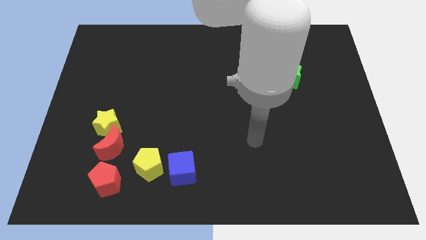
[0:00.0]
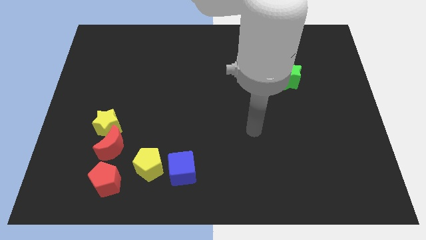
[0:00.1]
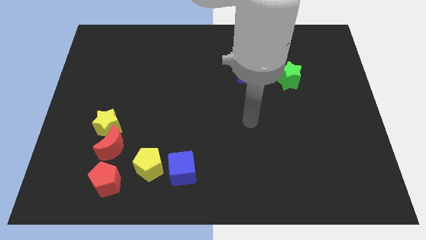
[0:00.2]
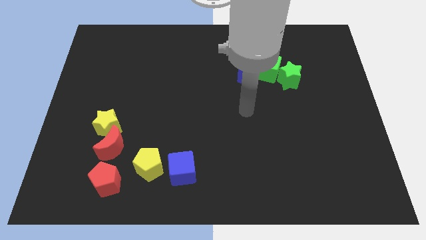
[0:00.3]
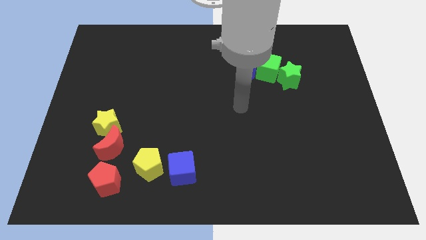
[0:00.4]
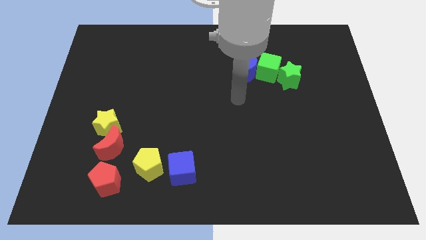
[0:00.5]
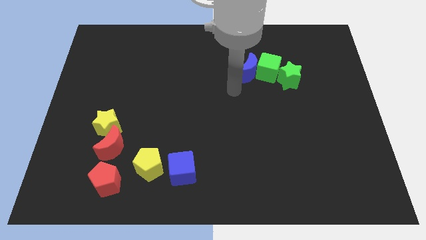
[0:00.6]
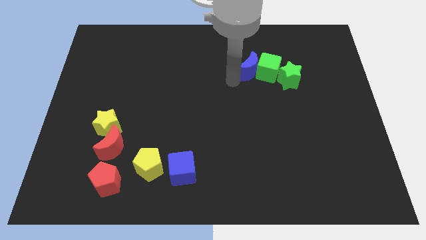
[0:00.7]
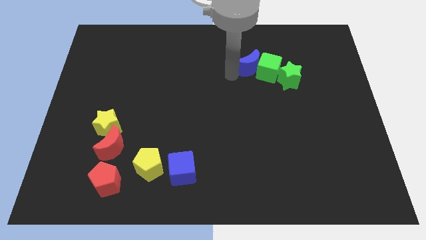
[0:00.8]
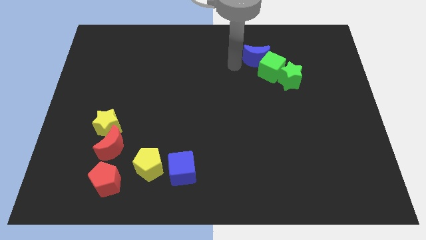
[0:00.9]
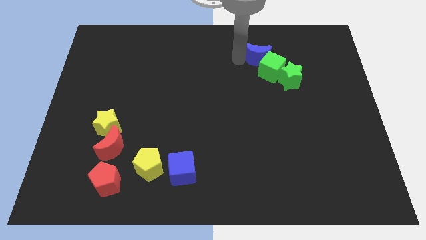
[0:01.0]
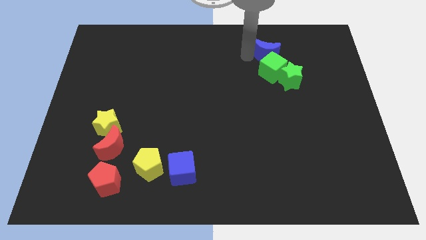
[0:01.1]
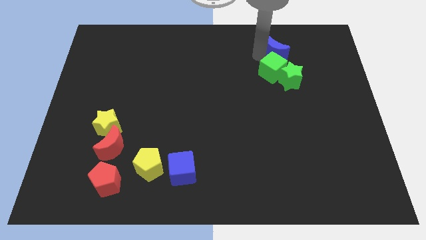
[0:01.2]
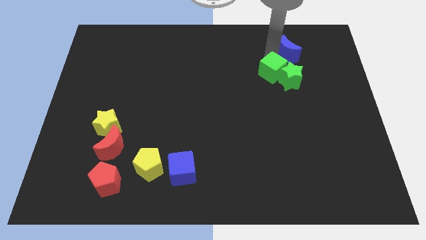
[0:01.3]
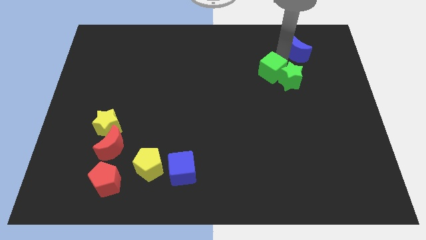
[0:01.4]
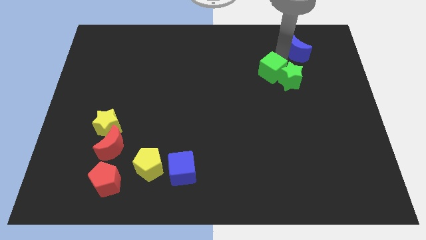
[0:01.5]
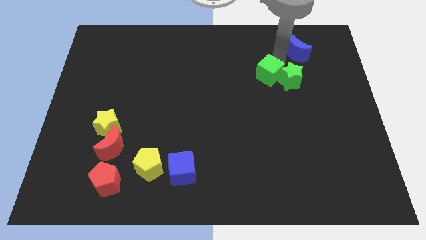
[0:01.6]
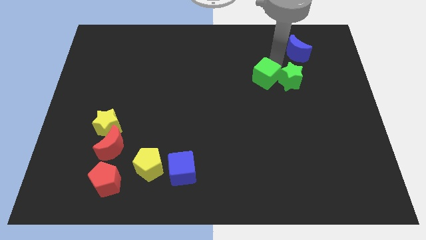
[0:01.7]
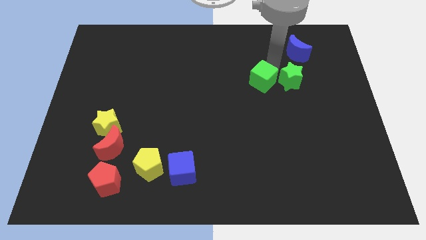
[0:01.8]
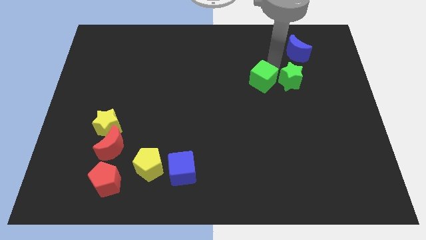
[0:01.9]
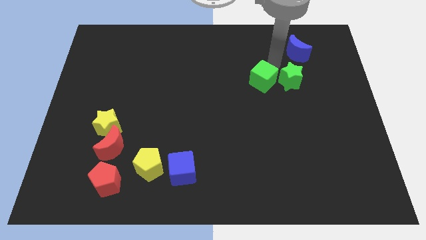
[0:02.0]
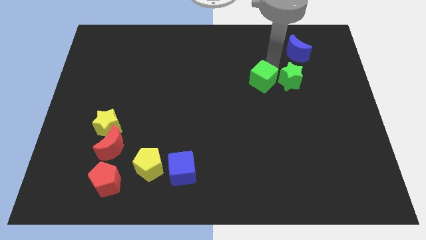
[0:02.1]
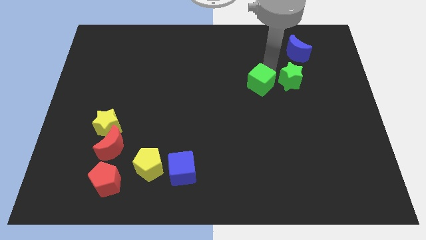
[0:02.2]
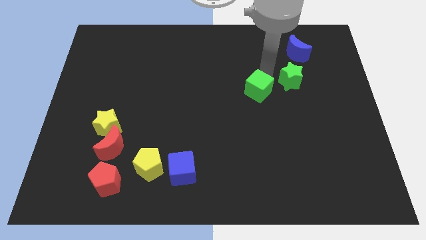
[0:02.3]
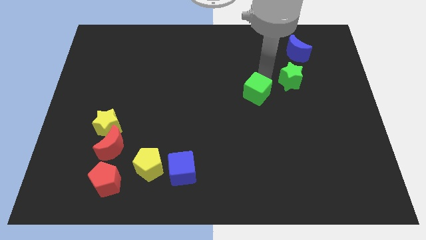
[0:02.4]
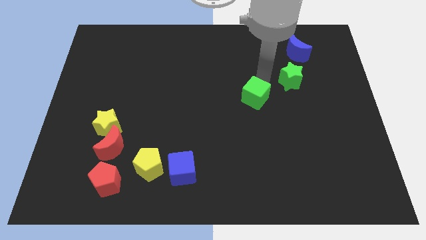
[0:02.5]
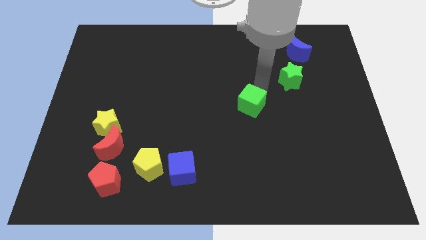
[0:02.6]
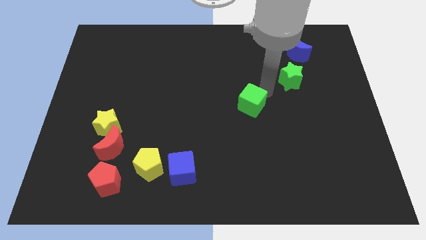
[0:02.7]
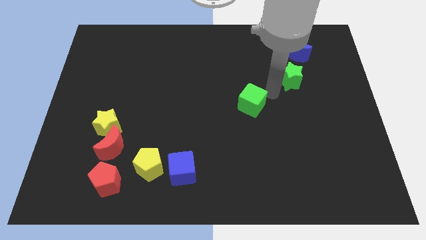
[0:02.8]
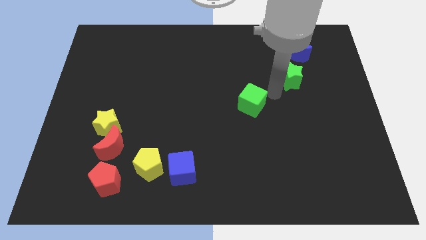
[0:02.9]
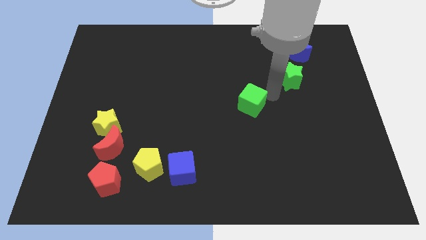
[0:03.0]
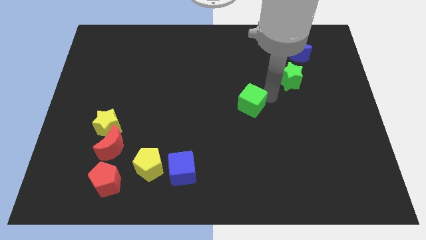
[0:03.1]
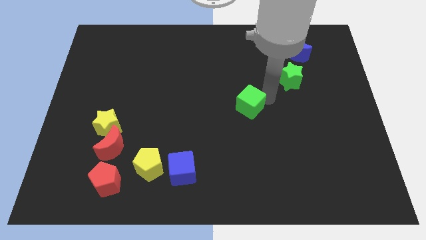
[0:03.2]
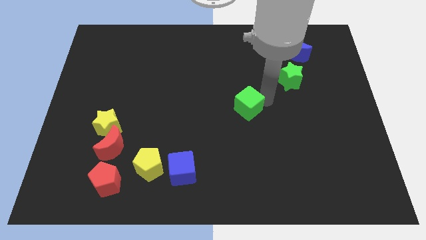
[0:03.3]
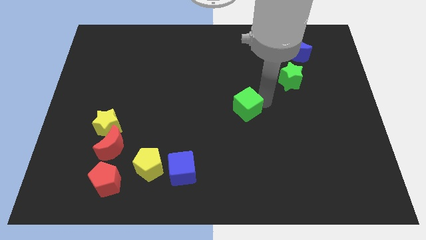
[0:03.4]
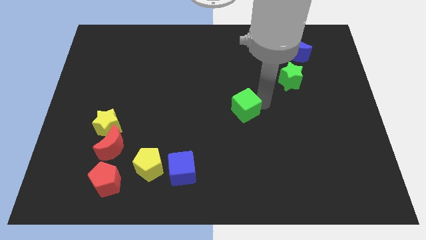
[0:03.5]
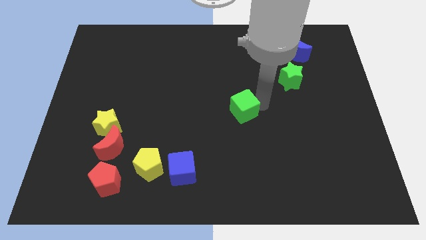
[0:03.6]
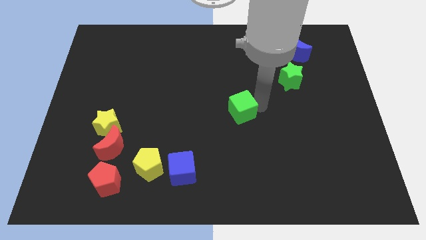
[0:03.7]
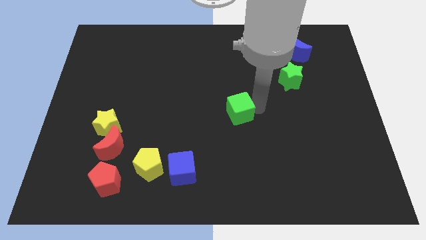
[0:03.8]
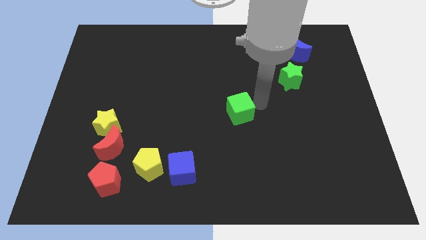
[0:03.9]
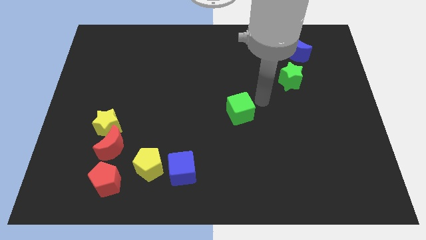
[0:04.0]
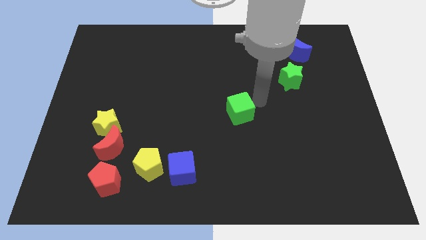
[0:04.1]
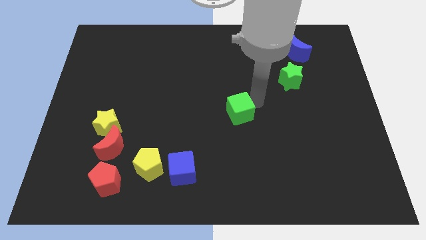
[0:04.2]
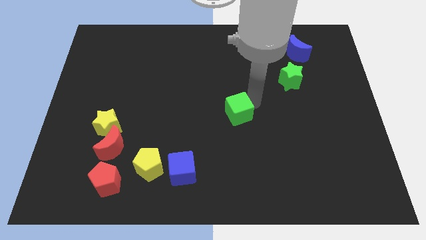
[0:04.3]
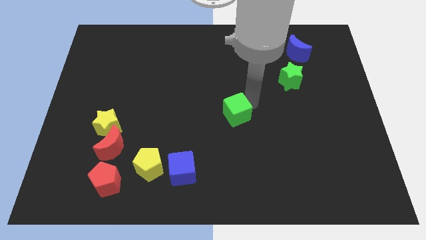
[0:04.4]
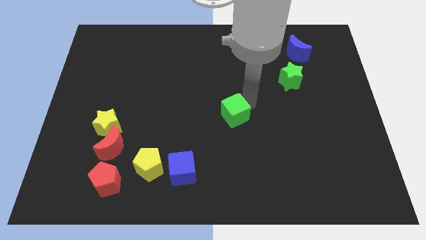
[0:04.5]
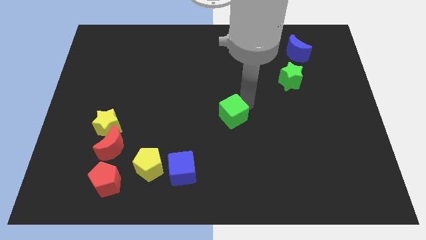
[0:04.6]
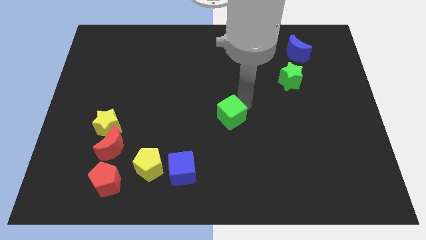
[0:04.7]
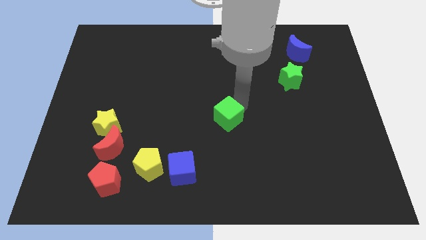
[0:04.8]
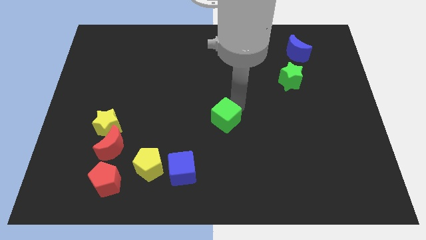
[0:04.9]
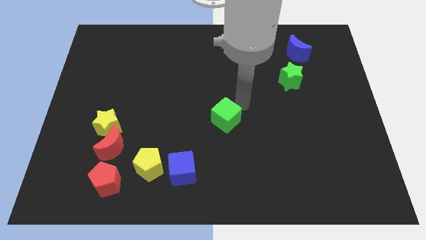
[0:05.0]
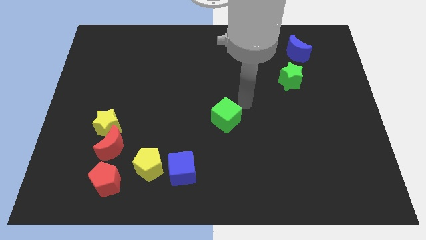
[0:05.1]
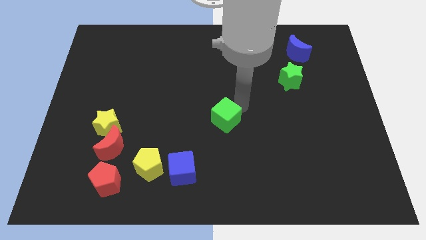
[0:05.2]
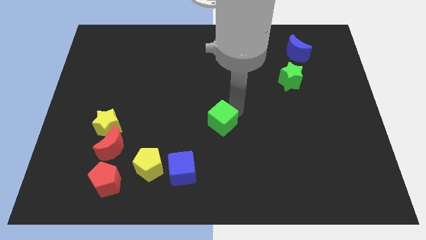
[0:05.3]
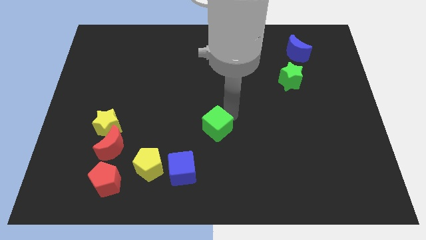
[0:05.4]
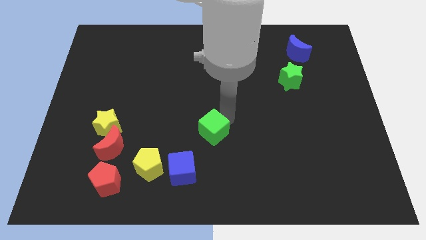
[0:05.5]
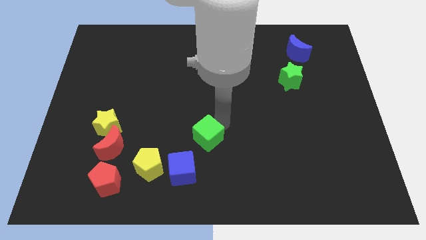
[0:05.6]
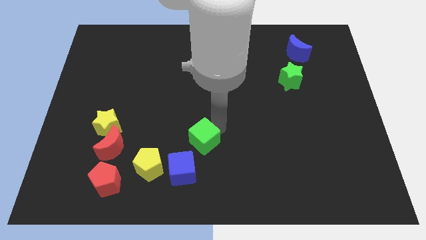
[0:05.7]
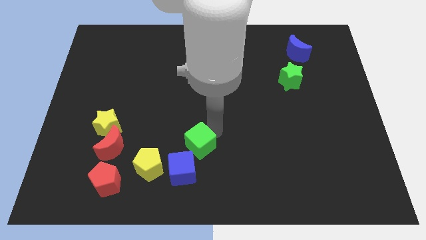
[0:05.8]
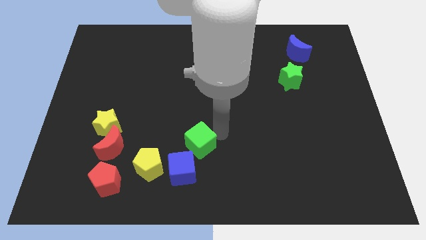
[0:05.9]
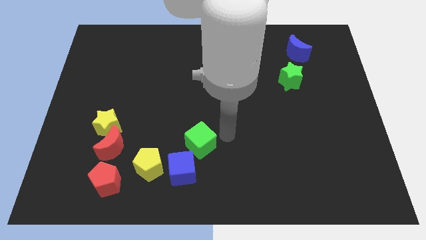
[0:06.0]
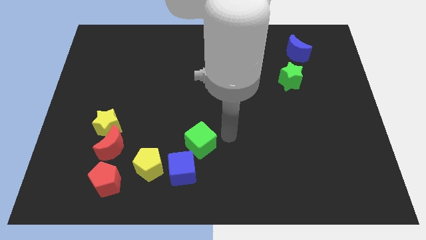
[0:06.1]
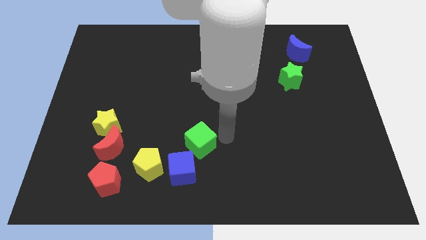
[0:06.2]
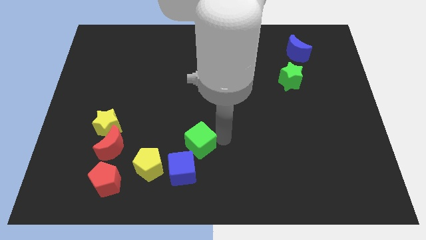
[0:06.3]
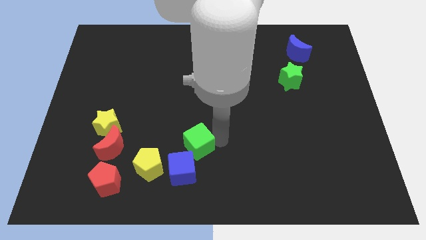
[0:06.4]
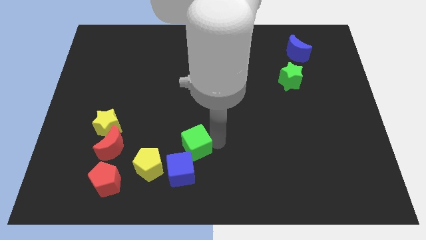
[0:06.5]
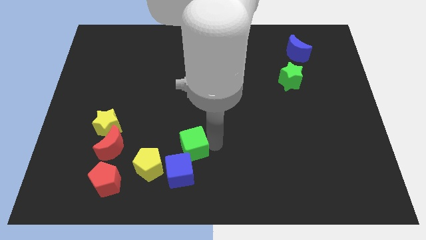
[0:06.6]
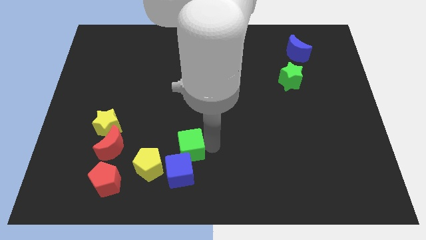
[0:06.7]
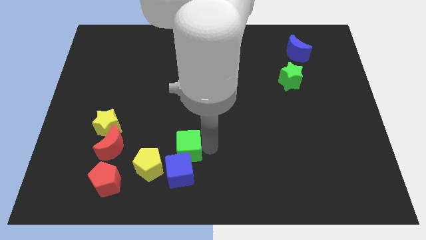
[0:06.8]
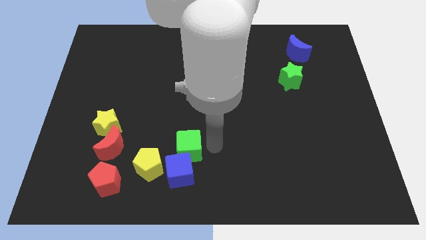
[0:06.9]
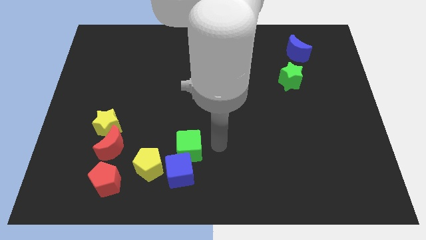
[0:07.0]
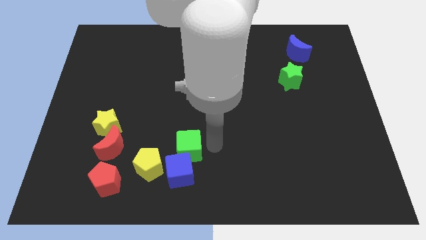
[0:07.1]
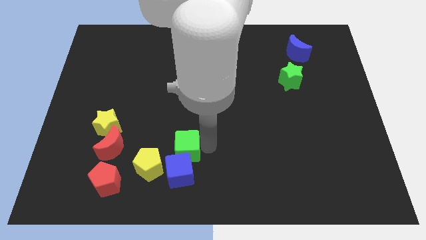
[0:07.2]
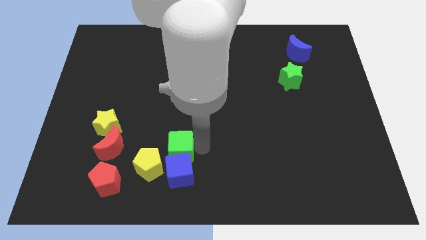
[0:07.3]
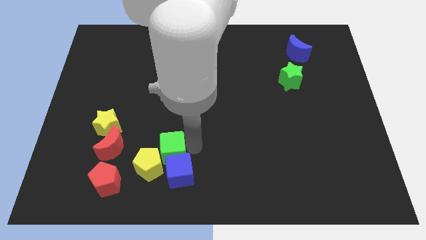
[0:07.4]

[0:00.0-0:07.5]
put the green cube next to the yellow pentagon
